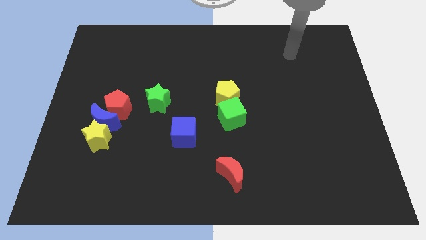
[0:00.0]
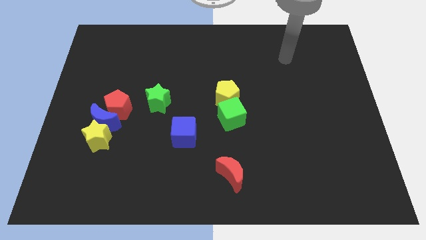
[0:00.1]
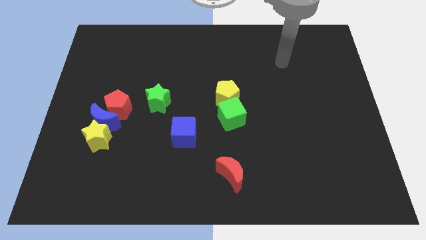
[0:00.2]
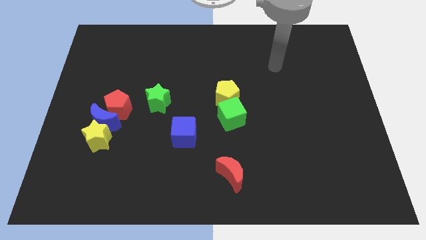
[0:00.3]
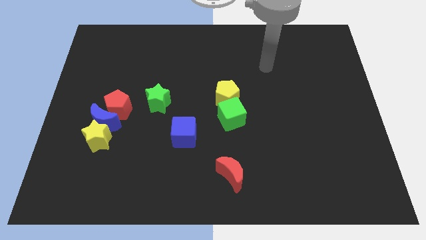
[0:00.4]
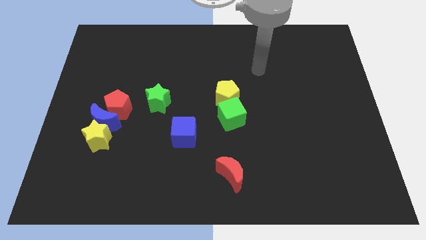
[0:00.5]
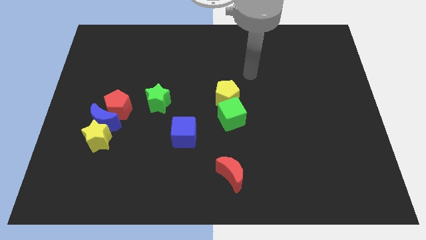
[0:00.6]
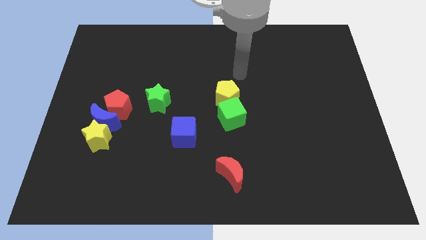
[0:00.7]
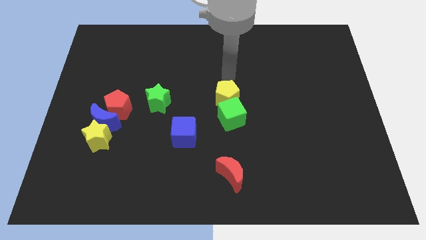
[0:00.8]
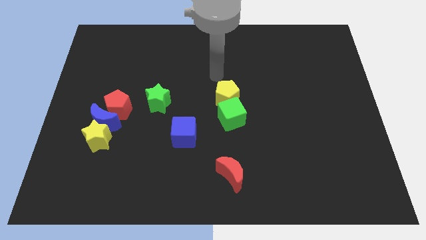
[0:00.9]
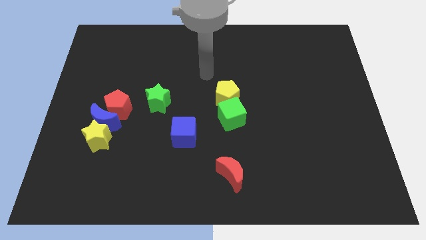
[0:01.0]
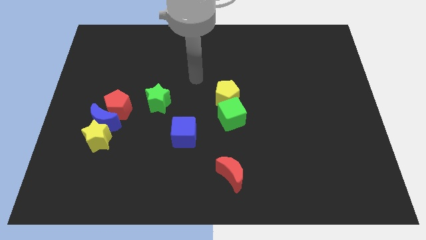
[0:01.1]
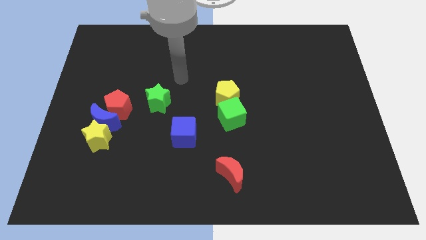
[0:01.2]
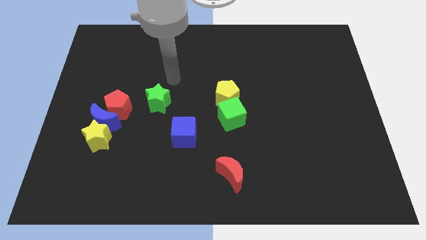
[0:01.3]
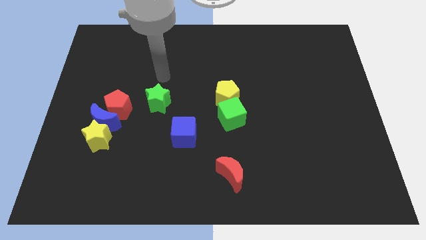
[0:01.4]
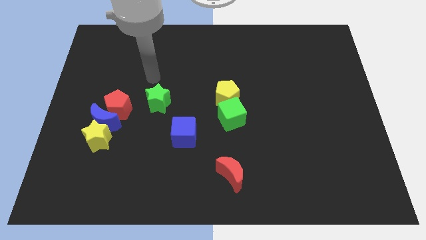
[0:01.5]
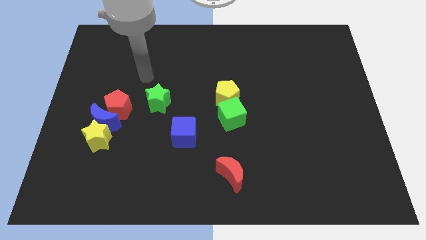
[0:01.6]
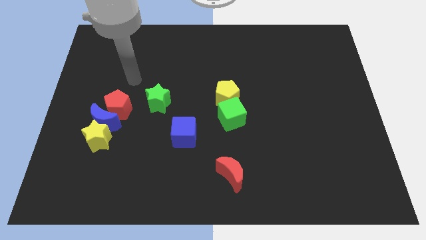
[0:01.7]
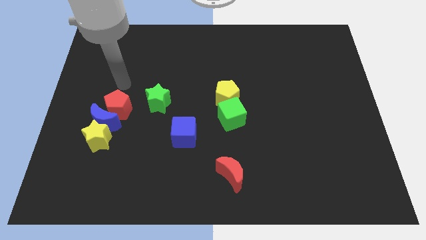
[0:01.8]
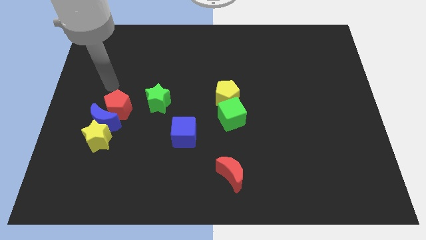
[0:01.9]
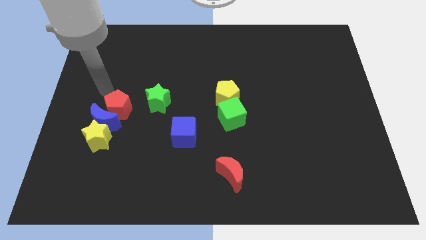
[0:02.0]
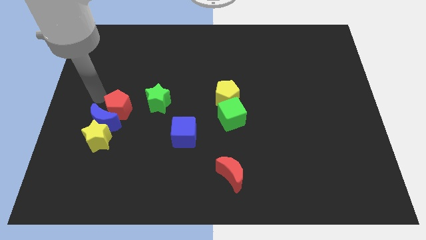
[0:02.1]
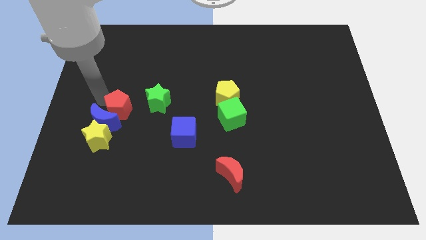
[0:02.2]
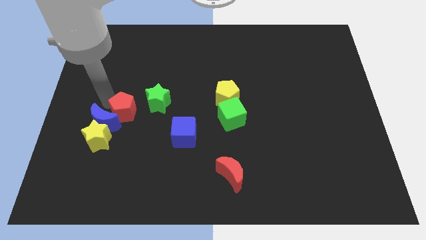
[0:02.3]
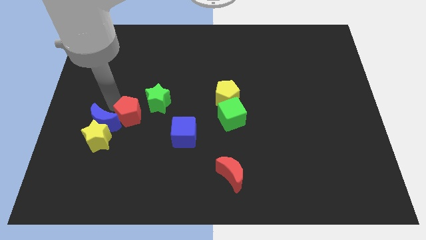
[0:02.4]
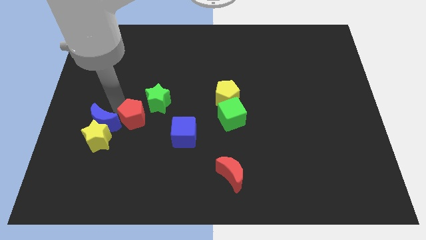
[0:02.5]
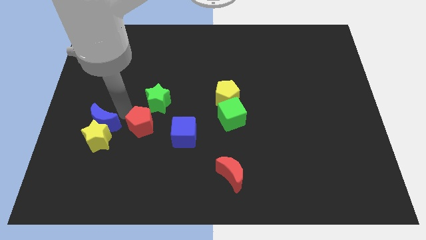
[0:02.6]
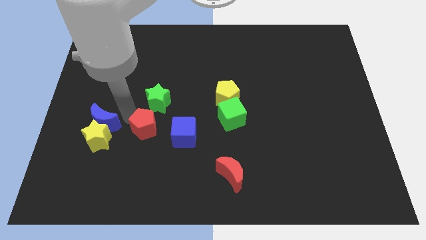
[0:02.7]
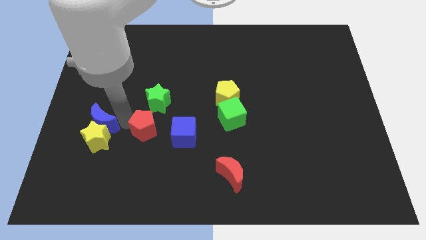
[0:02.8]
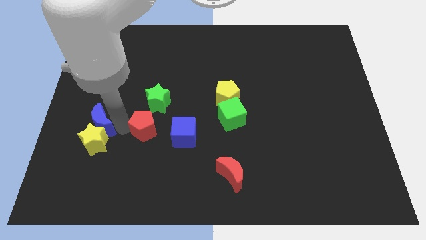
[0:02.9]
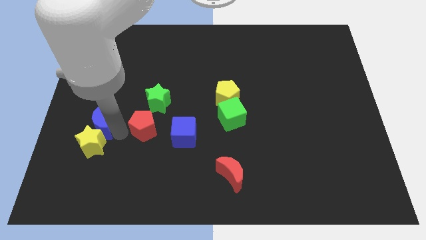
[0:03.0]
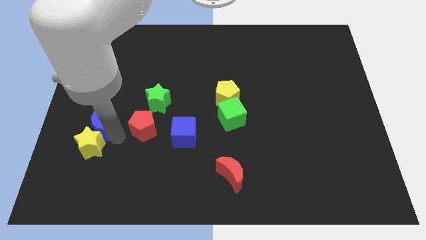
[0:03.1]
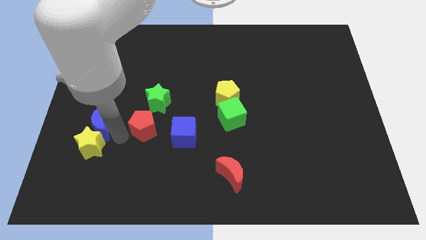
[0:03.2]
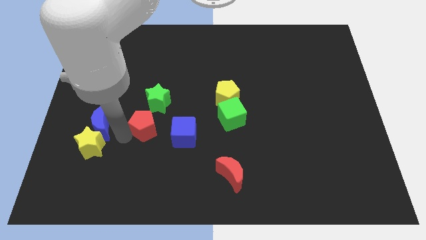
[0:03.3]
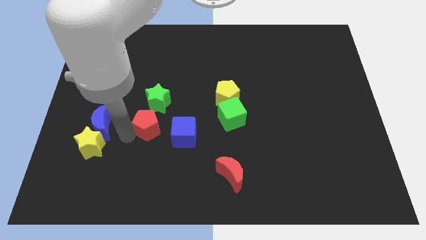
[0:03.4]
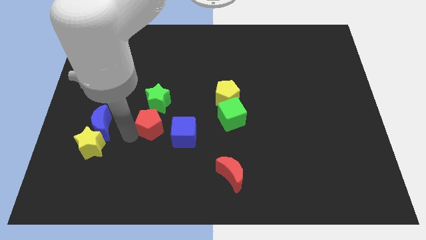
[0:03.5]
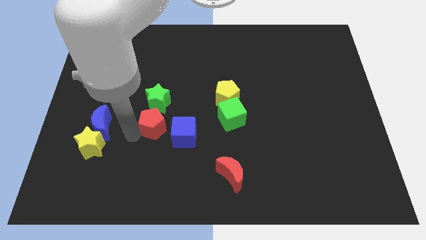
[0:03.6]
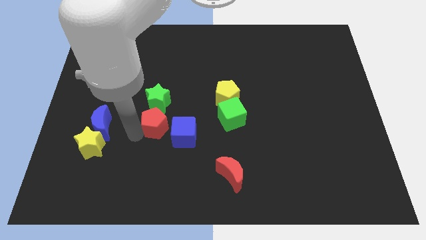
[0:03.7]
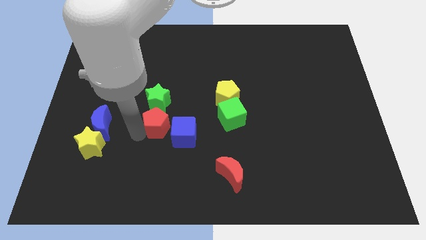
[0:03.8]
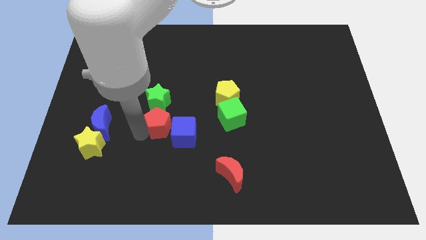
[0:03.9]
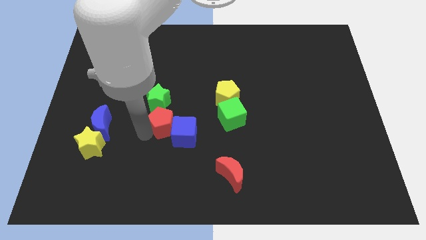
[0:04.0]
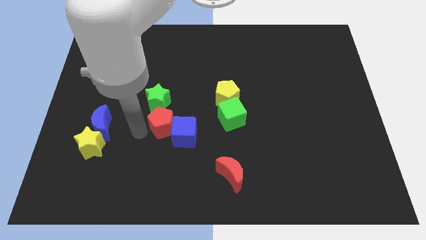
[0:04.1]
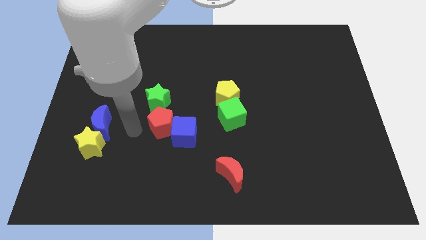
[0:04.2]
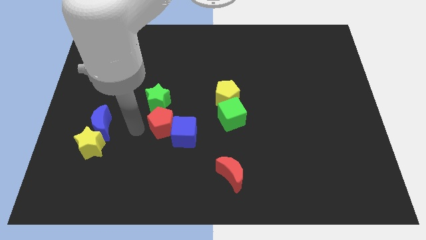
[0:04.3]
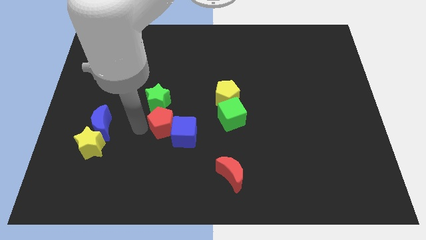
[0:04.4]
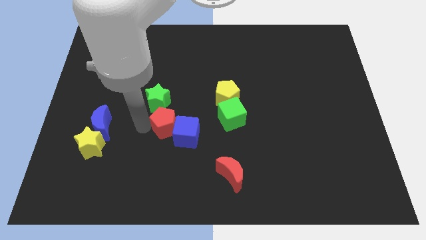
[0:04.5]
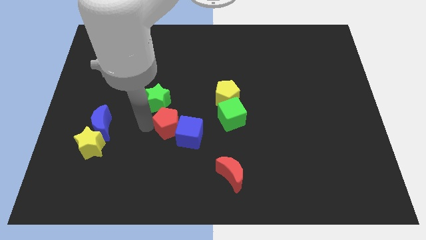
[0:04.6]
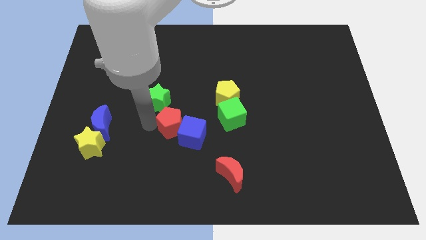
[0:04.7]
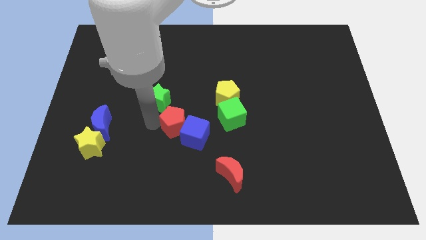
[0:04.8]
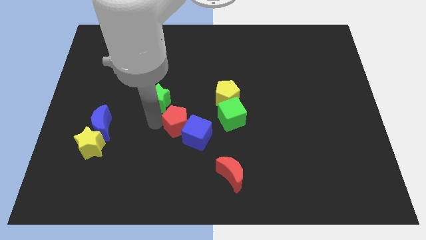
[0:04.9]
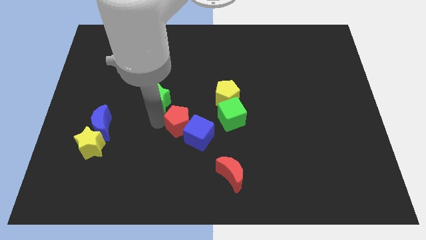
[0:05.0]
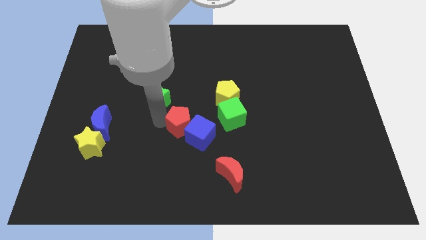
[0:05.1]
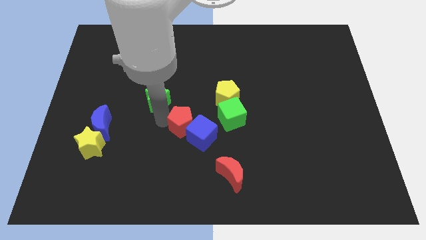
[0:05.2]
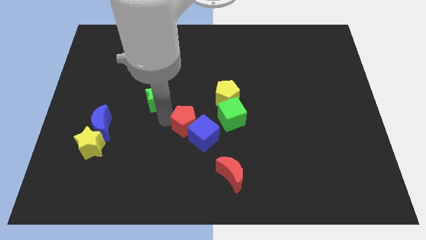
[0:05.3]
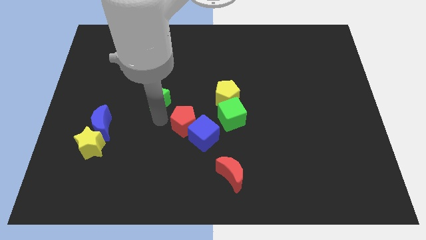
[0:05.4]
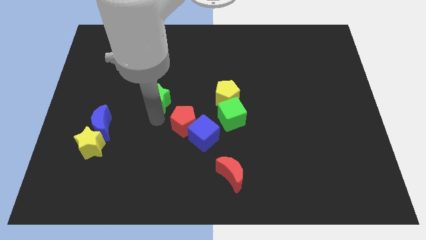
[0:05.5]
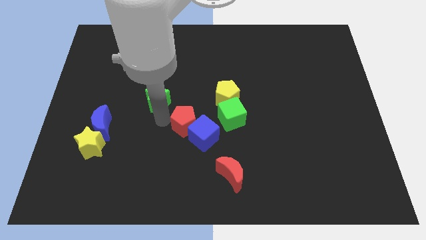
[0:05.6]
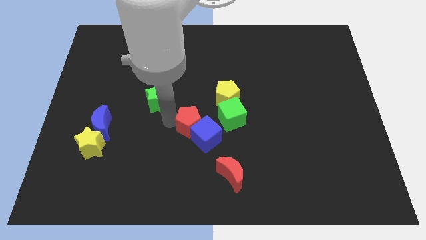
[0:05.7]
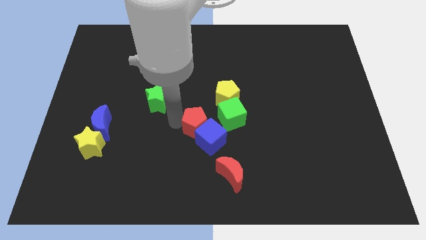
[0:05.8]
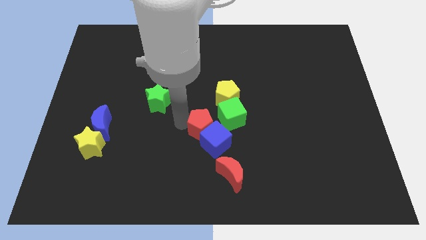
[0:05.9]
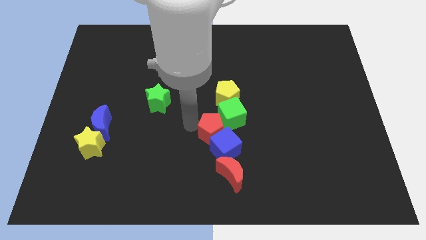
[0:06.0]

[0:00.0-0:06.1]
put the red pentagon to the bottom of the green cube

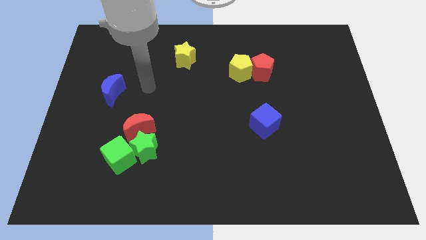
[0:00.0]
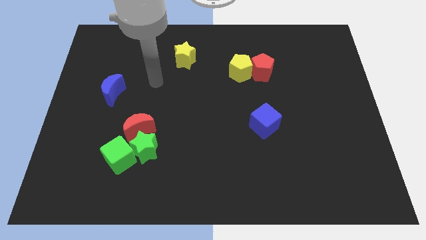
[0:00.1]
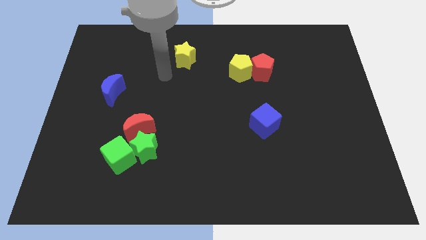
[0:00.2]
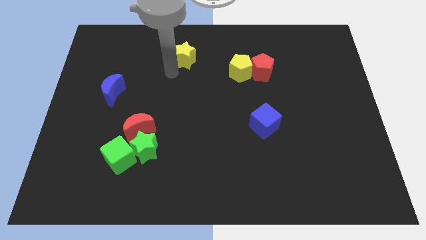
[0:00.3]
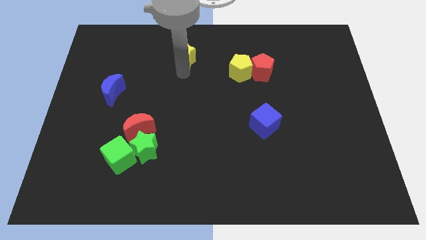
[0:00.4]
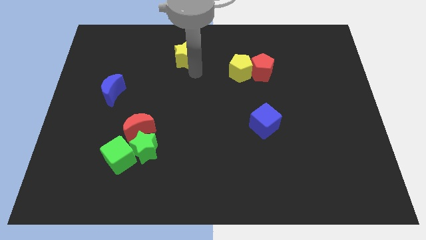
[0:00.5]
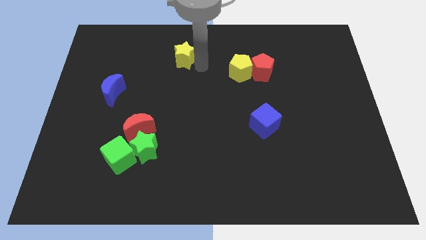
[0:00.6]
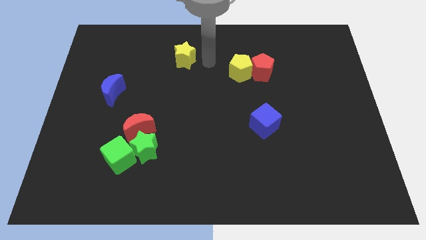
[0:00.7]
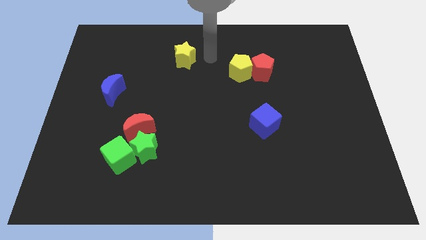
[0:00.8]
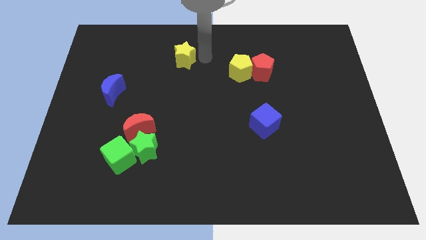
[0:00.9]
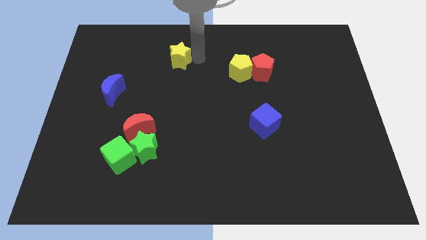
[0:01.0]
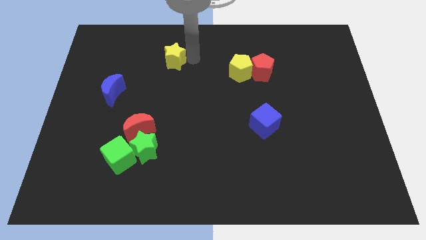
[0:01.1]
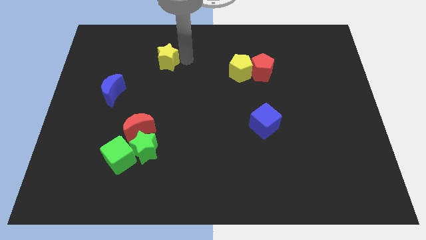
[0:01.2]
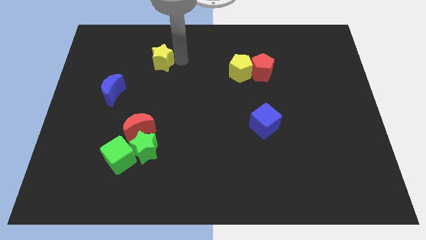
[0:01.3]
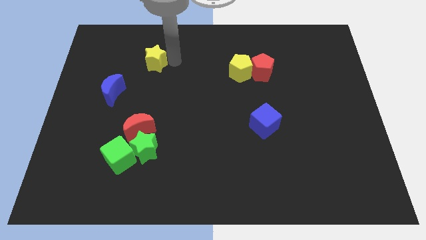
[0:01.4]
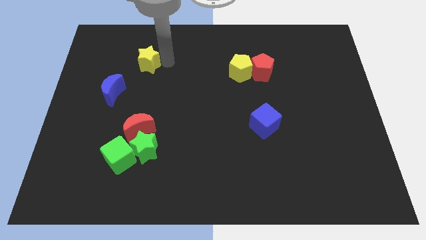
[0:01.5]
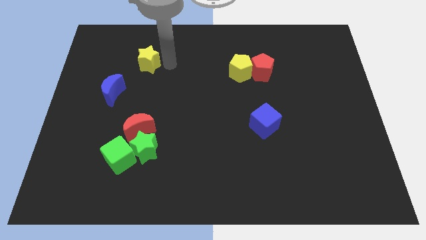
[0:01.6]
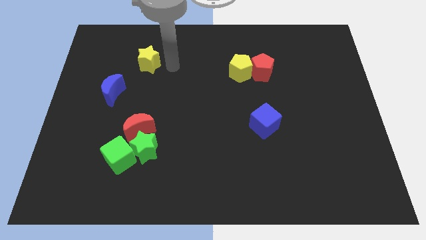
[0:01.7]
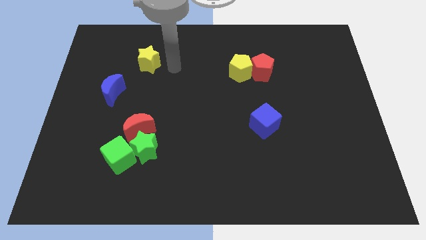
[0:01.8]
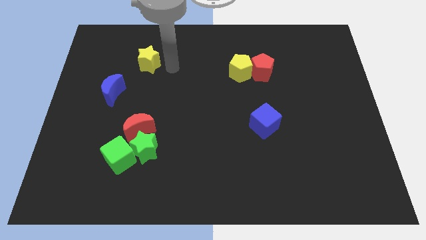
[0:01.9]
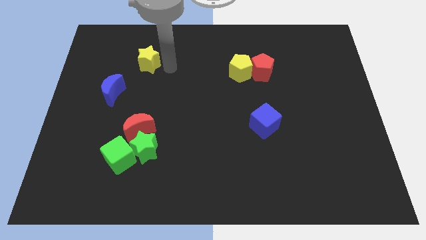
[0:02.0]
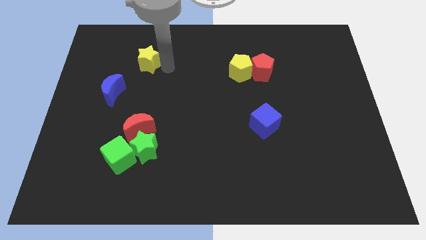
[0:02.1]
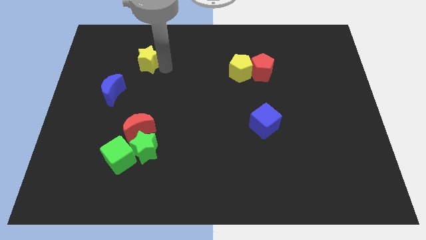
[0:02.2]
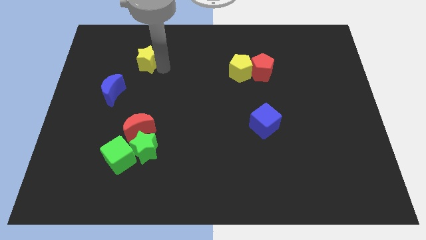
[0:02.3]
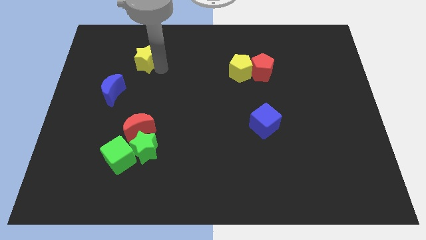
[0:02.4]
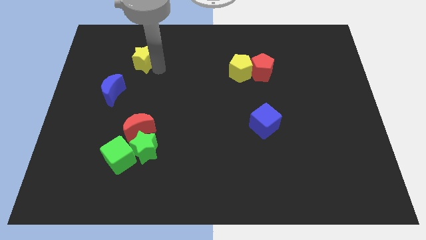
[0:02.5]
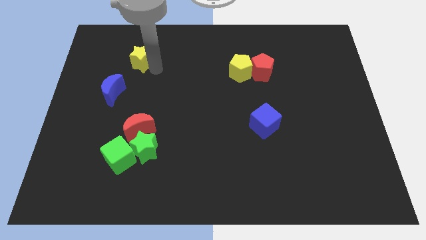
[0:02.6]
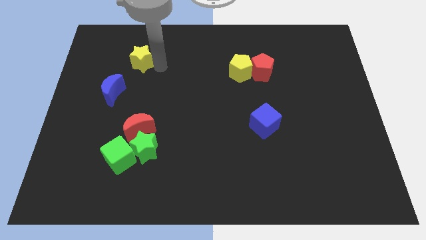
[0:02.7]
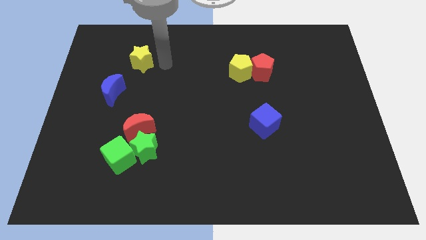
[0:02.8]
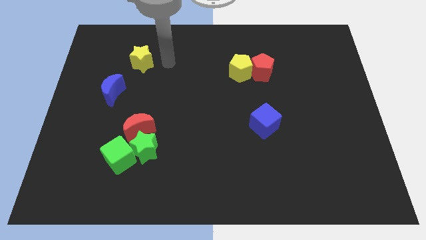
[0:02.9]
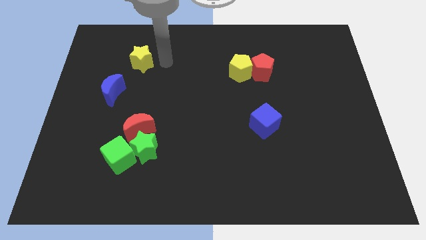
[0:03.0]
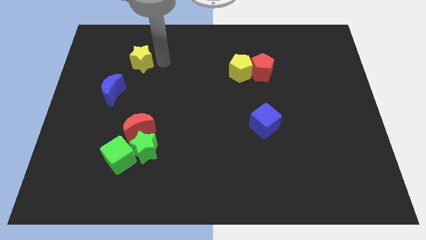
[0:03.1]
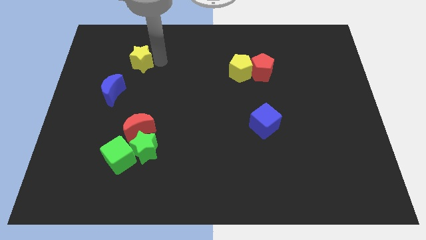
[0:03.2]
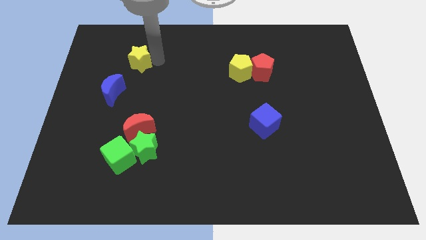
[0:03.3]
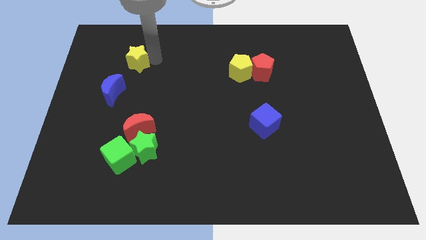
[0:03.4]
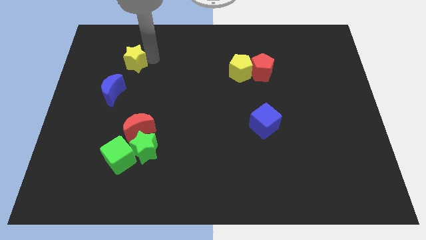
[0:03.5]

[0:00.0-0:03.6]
push the yellow star above the blue moon
